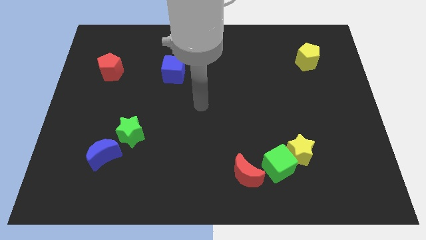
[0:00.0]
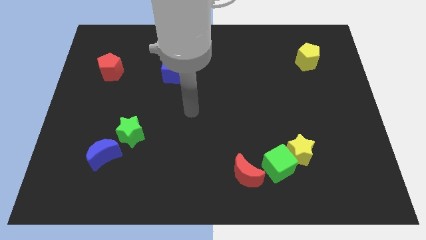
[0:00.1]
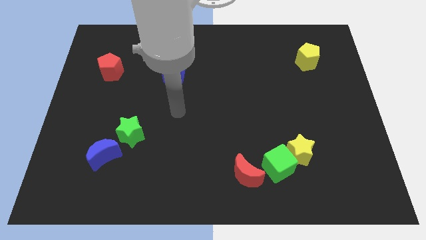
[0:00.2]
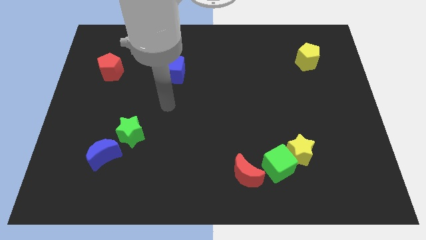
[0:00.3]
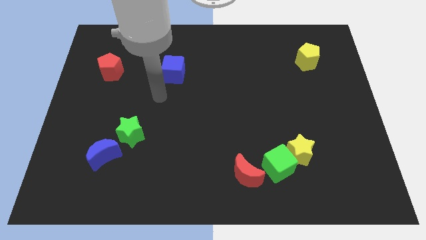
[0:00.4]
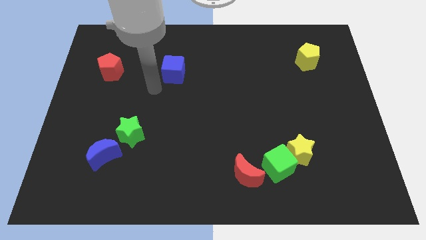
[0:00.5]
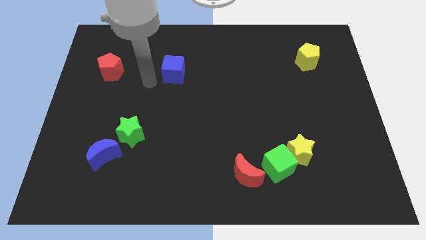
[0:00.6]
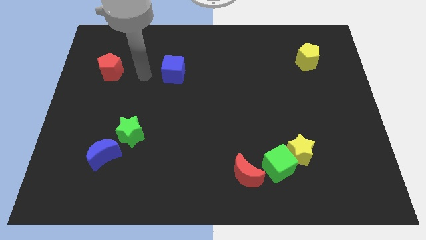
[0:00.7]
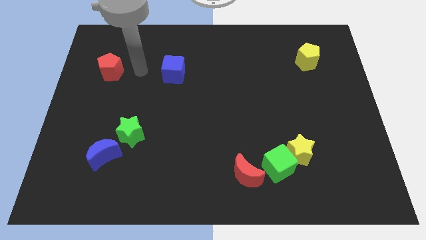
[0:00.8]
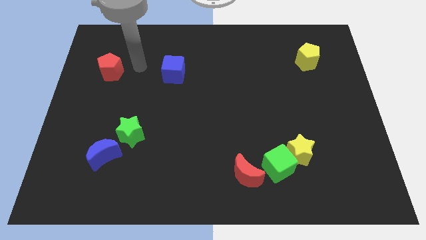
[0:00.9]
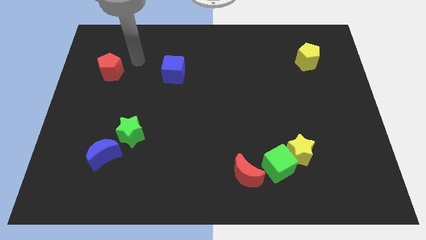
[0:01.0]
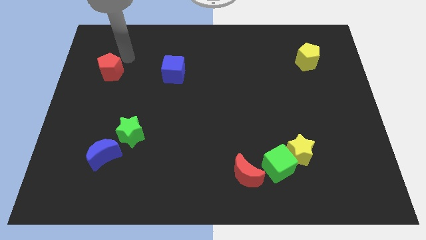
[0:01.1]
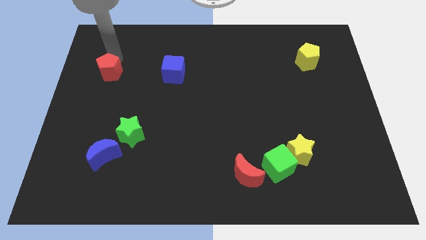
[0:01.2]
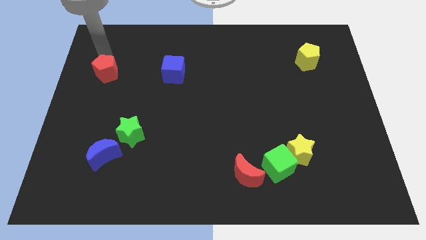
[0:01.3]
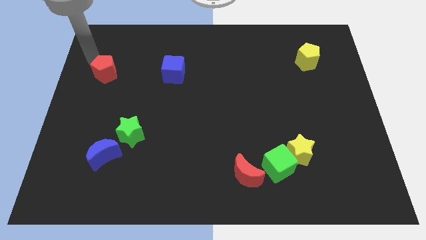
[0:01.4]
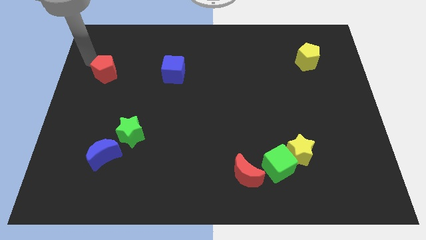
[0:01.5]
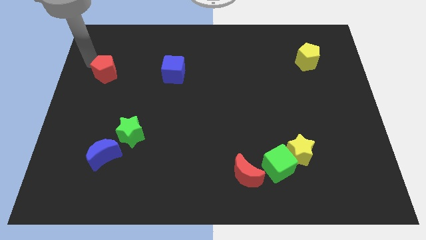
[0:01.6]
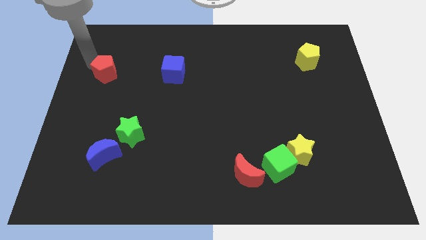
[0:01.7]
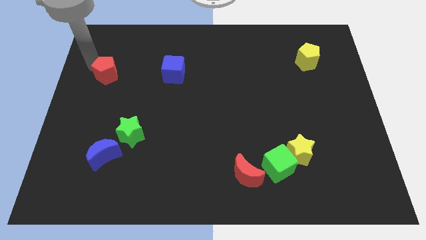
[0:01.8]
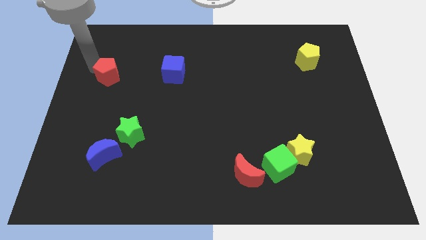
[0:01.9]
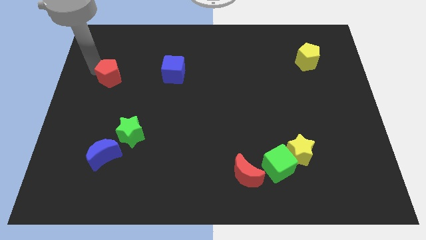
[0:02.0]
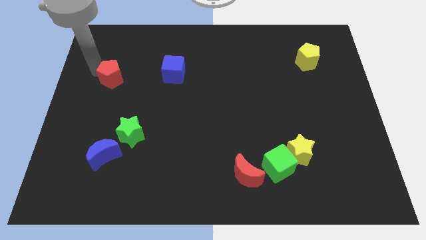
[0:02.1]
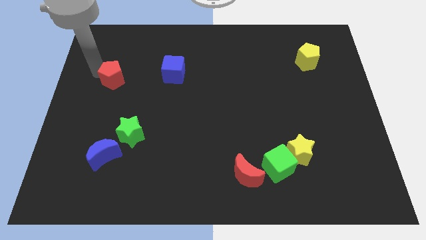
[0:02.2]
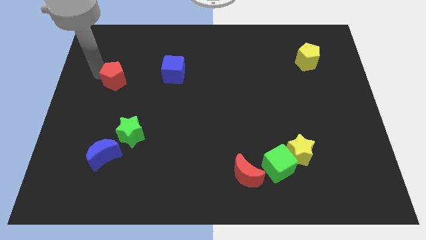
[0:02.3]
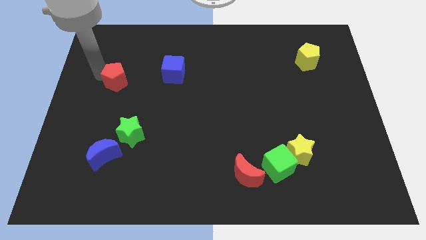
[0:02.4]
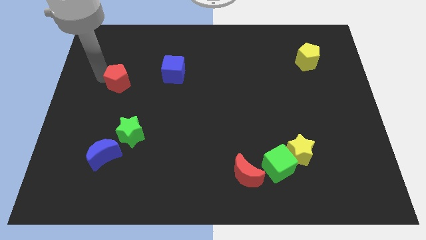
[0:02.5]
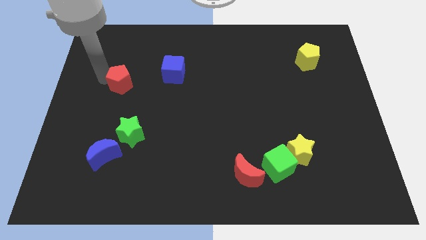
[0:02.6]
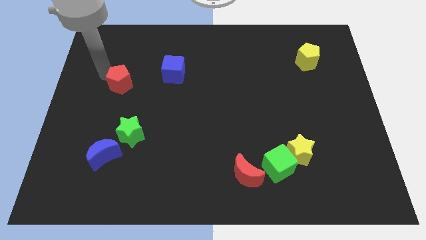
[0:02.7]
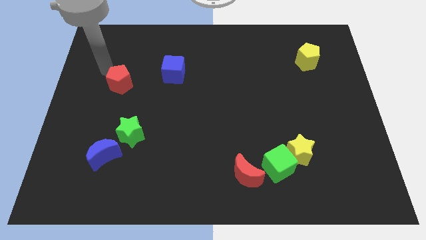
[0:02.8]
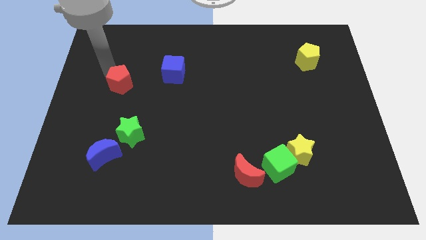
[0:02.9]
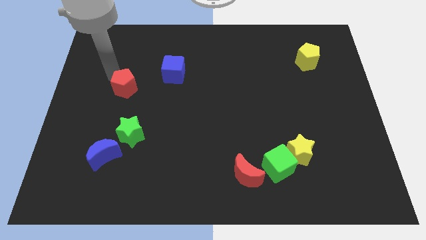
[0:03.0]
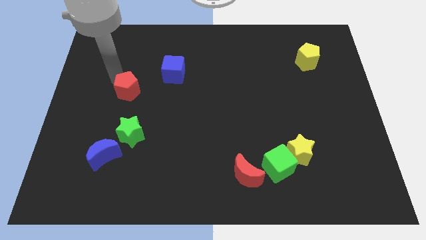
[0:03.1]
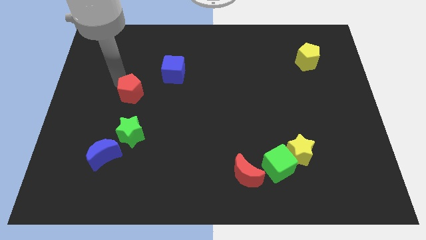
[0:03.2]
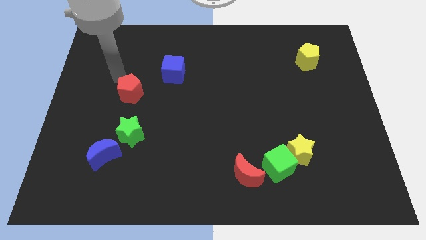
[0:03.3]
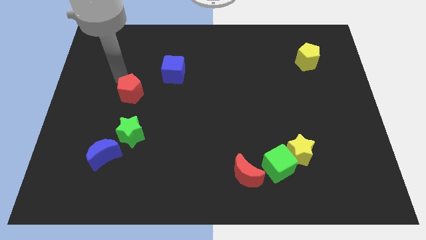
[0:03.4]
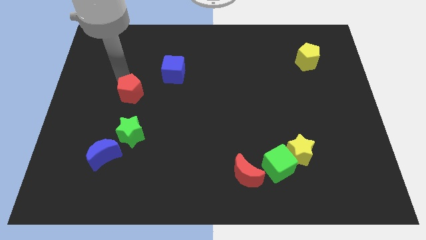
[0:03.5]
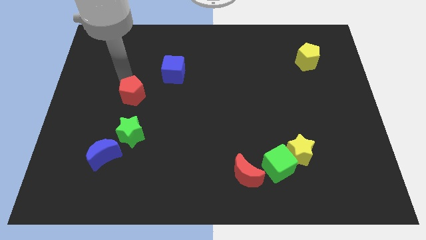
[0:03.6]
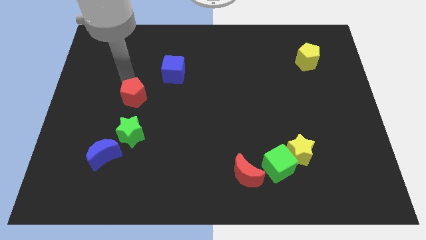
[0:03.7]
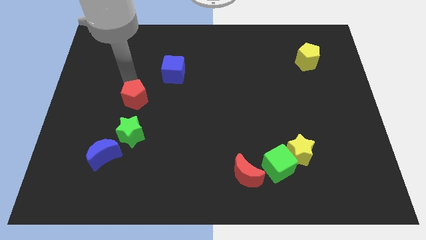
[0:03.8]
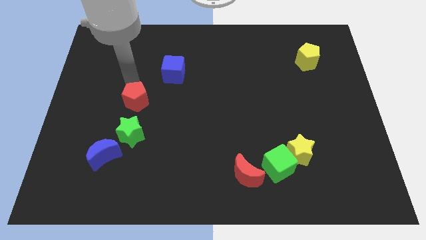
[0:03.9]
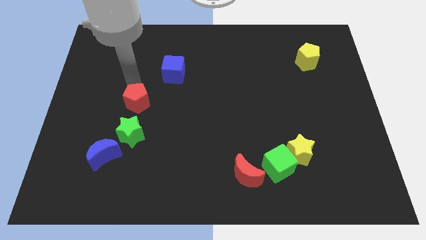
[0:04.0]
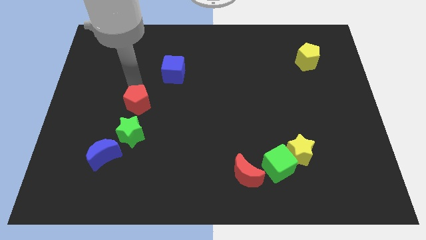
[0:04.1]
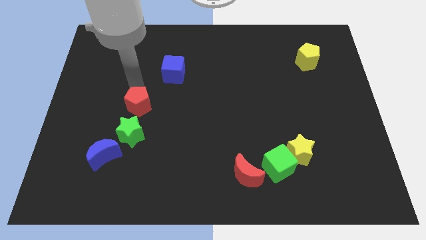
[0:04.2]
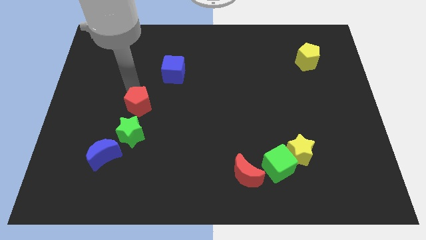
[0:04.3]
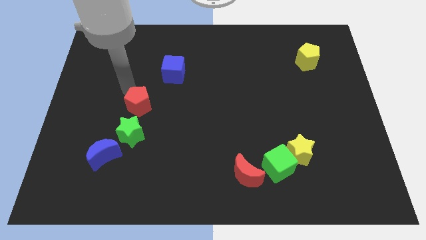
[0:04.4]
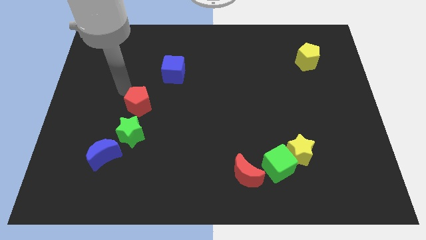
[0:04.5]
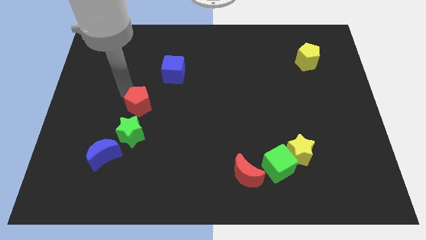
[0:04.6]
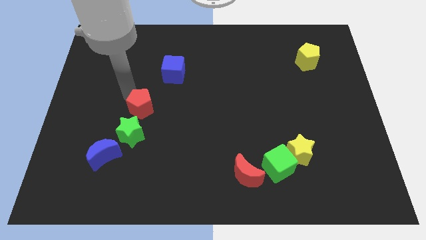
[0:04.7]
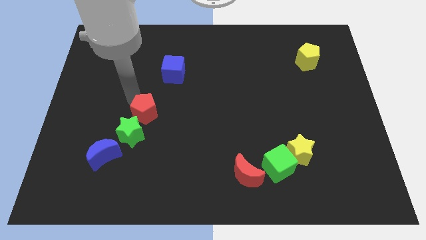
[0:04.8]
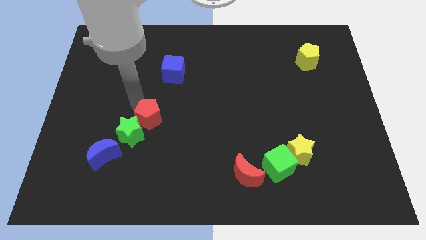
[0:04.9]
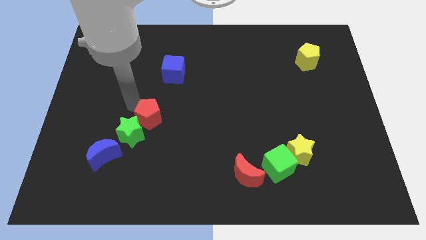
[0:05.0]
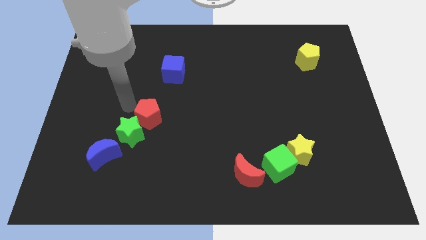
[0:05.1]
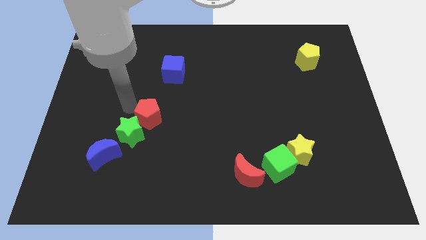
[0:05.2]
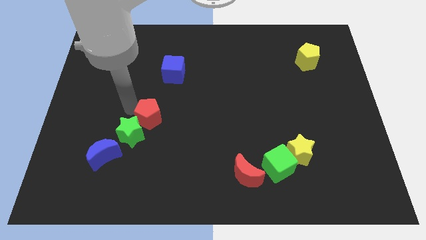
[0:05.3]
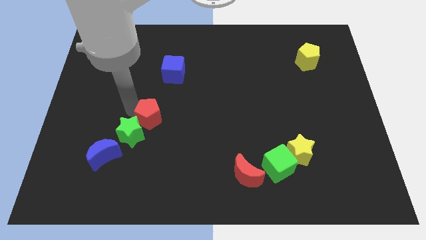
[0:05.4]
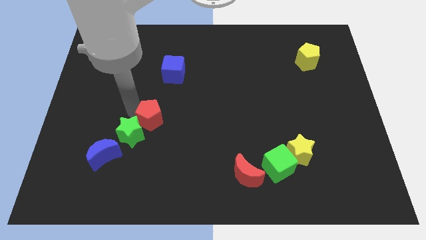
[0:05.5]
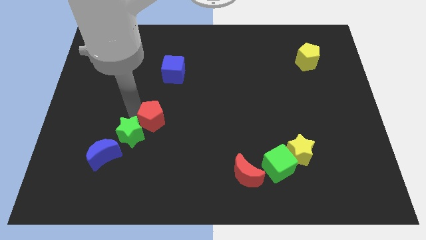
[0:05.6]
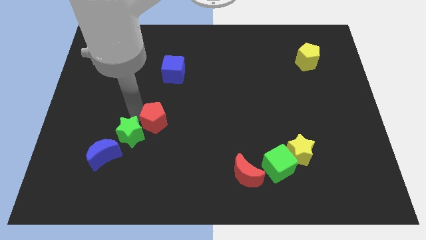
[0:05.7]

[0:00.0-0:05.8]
move the red pentagon diagonally downwards and right

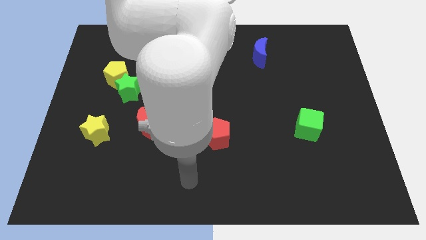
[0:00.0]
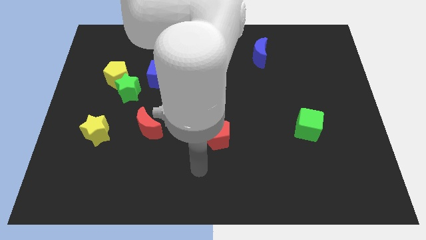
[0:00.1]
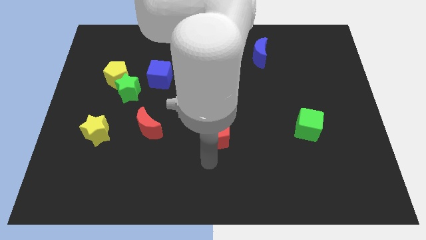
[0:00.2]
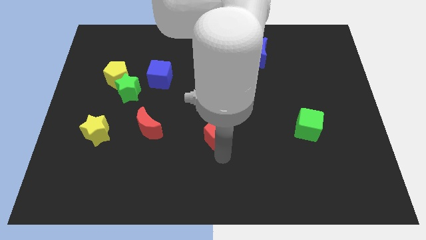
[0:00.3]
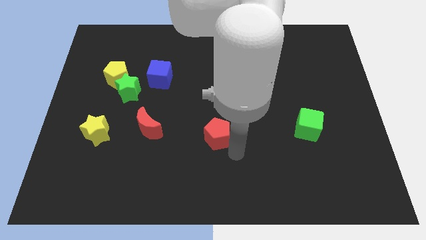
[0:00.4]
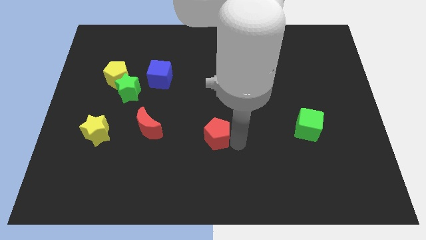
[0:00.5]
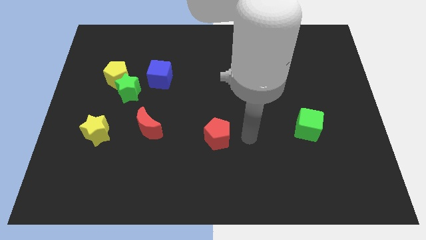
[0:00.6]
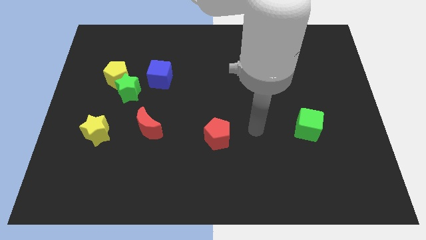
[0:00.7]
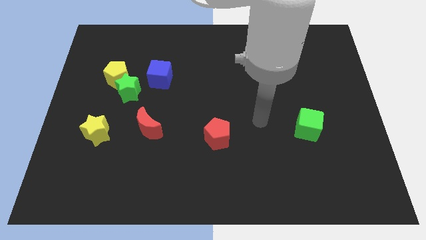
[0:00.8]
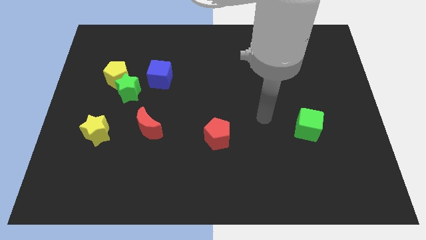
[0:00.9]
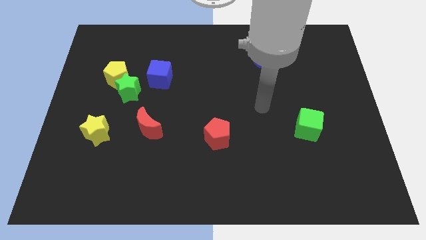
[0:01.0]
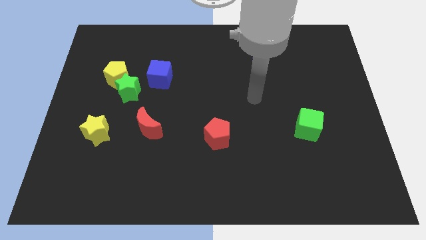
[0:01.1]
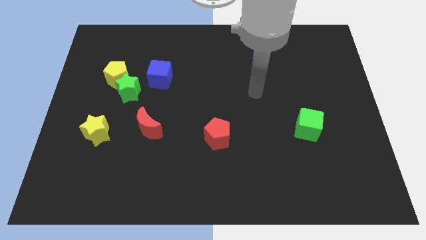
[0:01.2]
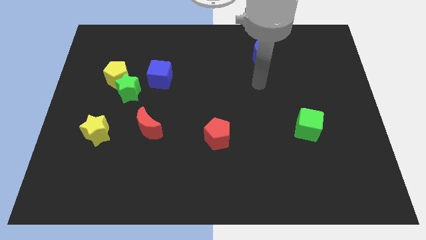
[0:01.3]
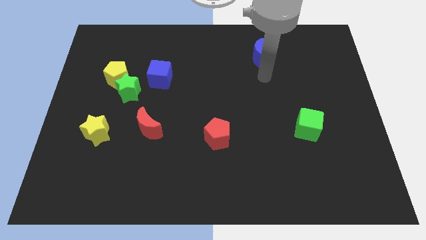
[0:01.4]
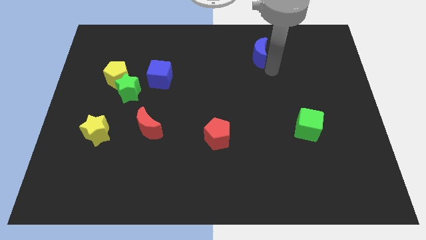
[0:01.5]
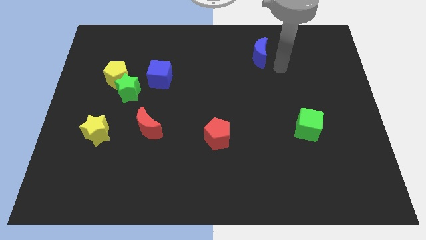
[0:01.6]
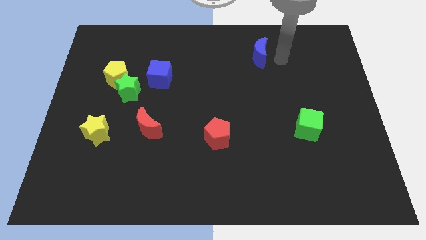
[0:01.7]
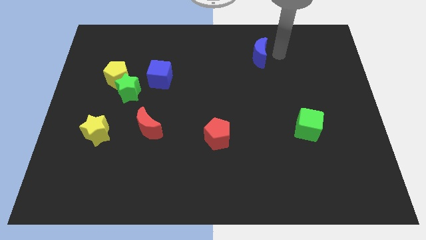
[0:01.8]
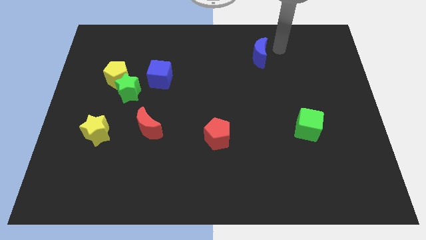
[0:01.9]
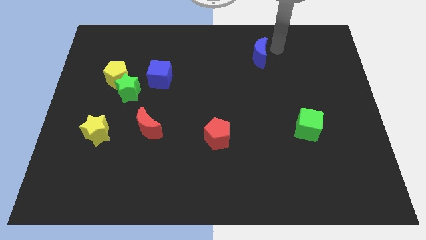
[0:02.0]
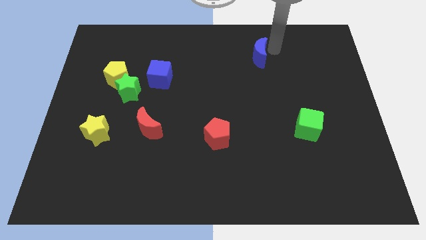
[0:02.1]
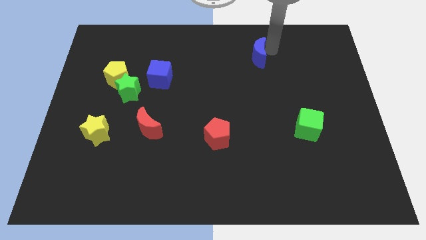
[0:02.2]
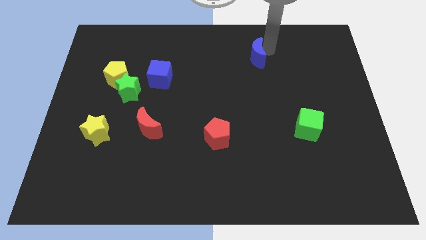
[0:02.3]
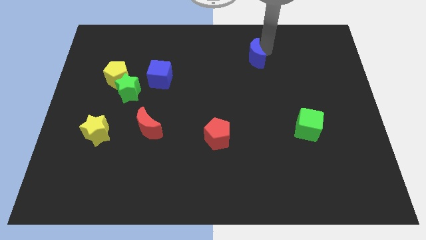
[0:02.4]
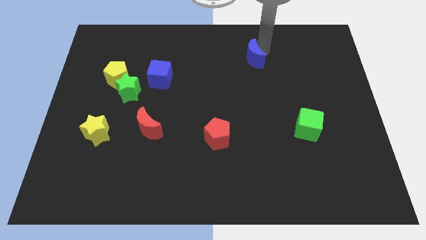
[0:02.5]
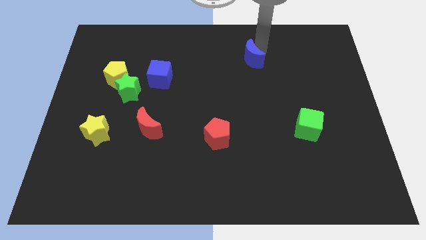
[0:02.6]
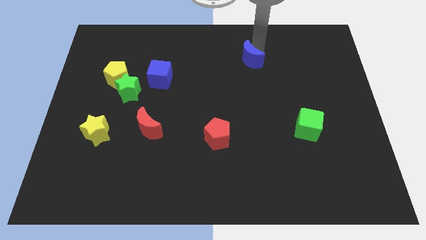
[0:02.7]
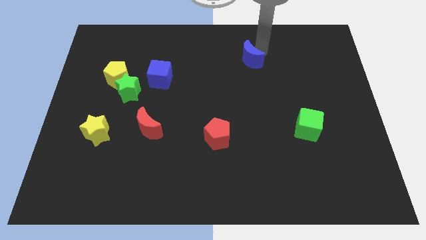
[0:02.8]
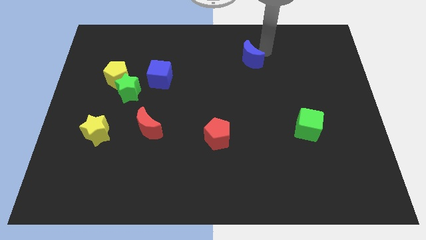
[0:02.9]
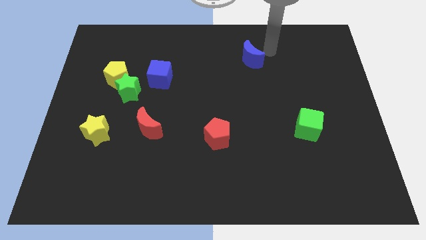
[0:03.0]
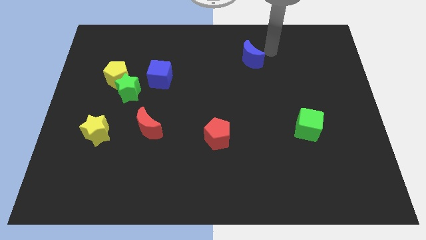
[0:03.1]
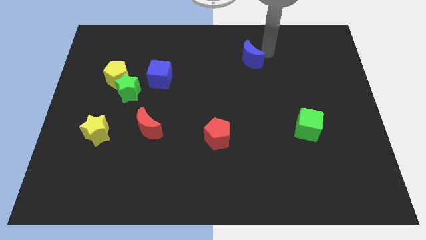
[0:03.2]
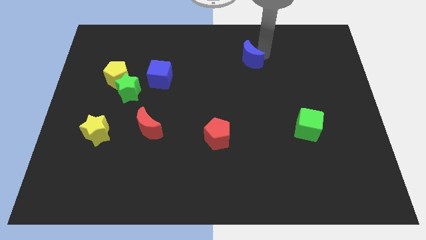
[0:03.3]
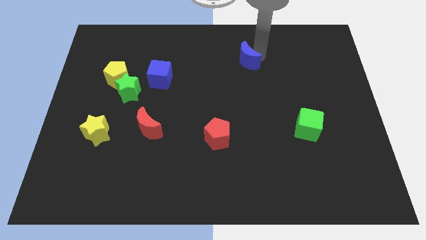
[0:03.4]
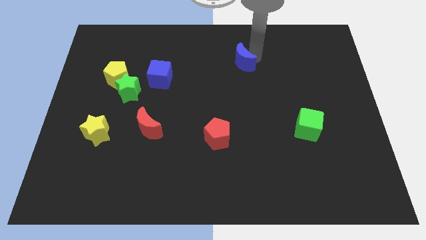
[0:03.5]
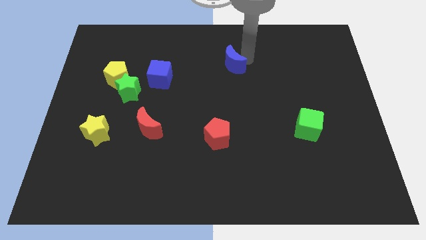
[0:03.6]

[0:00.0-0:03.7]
slide the blue moon downwards and then to the left a little bit
